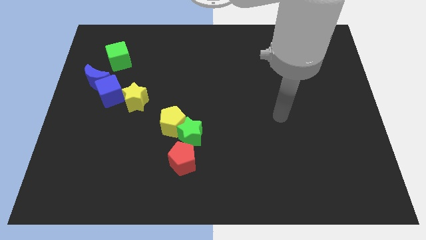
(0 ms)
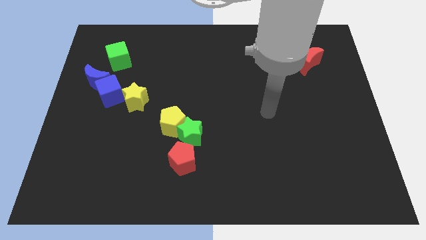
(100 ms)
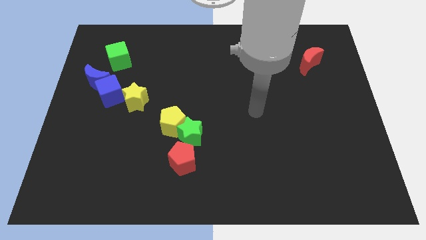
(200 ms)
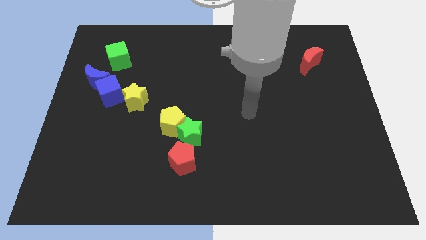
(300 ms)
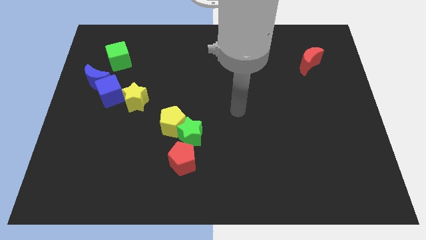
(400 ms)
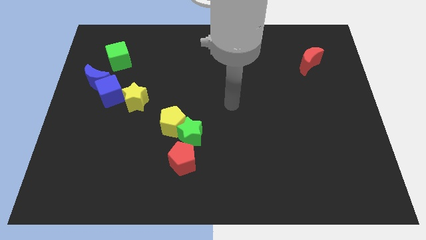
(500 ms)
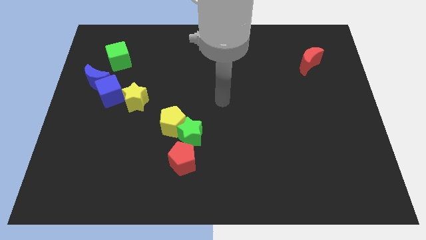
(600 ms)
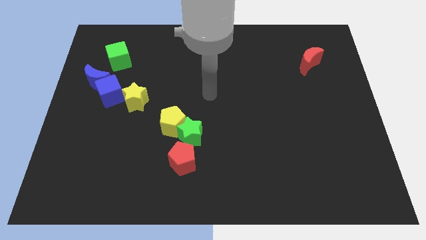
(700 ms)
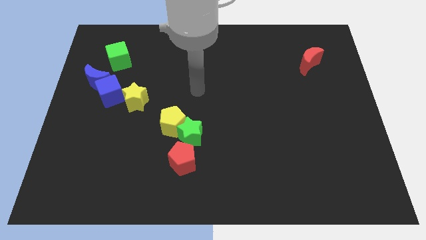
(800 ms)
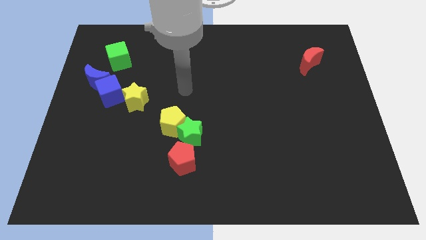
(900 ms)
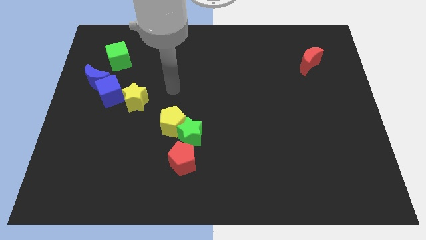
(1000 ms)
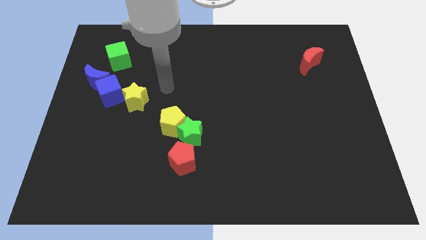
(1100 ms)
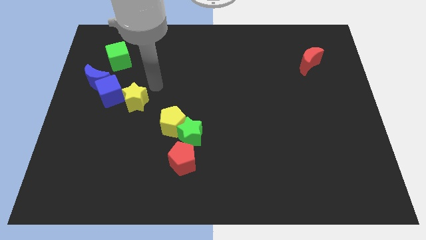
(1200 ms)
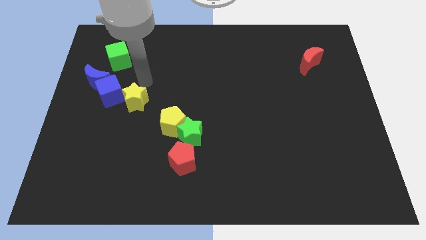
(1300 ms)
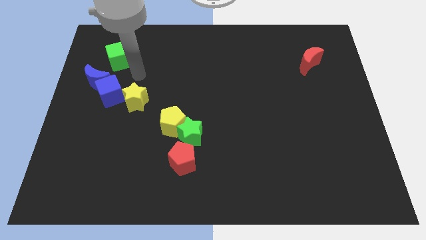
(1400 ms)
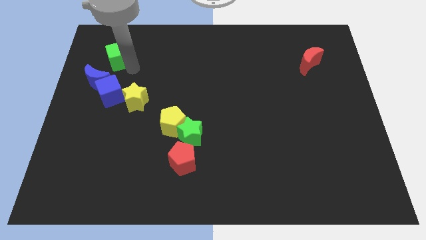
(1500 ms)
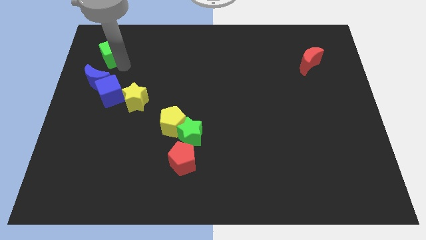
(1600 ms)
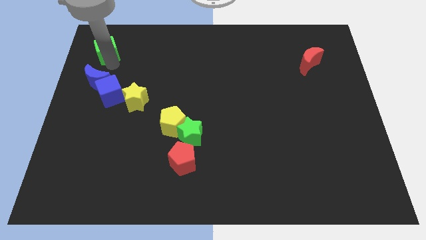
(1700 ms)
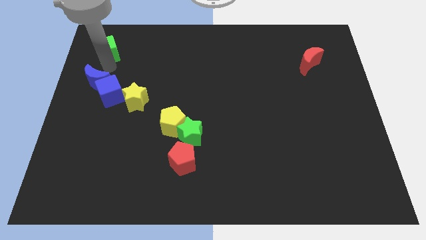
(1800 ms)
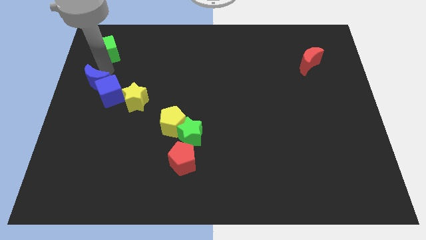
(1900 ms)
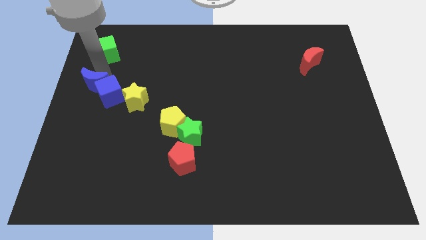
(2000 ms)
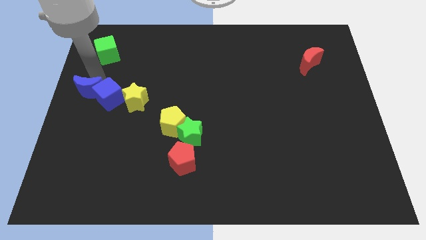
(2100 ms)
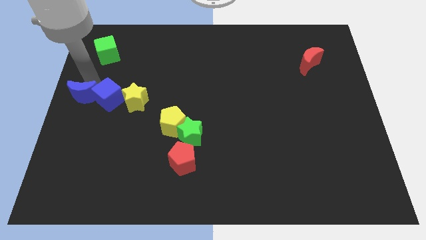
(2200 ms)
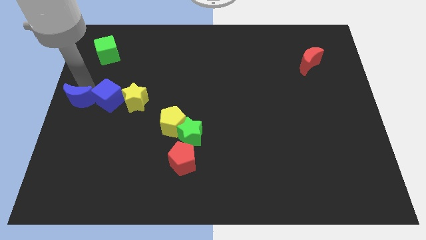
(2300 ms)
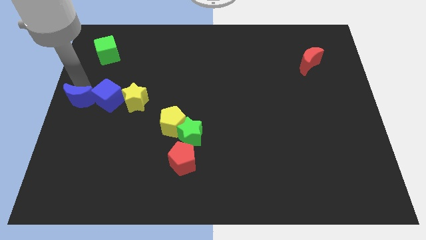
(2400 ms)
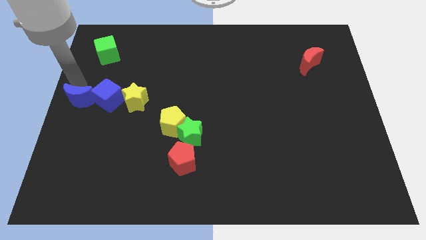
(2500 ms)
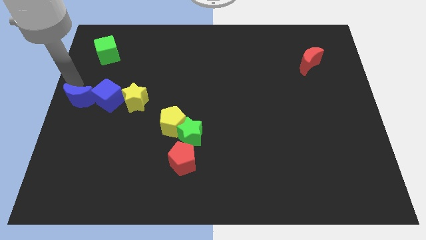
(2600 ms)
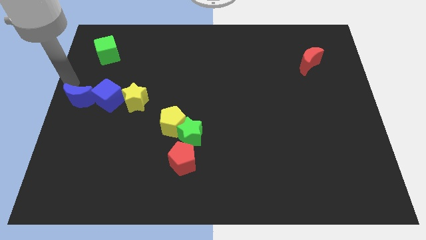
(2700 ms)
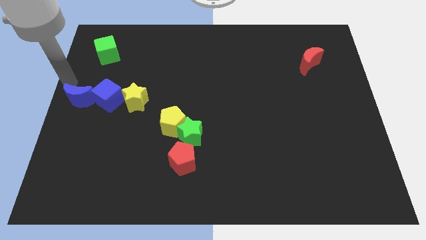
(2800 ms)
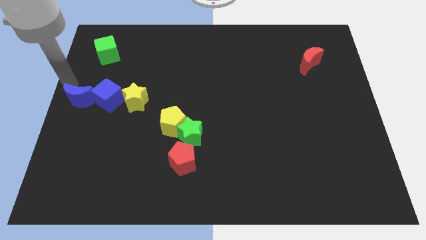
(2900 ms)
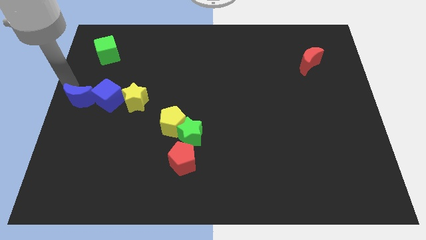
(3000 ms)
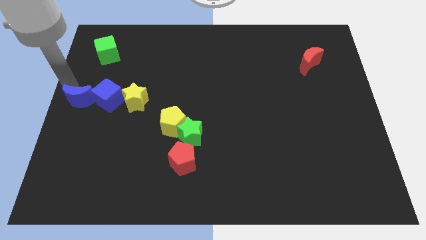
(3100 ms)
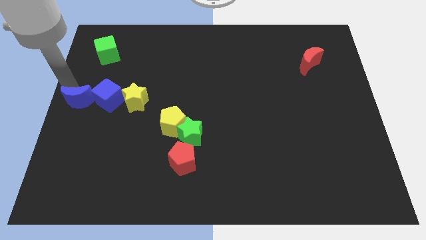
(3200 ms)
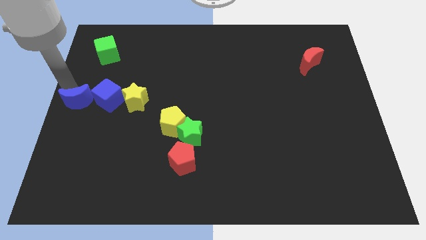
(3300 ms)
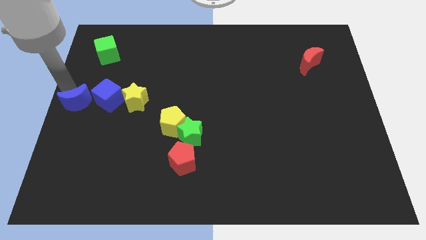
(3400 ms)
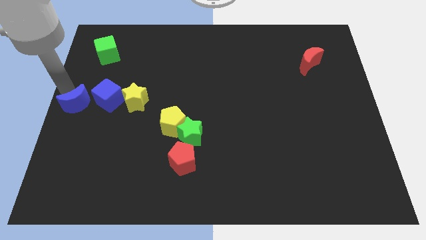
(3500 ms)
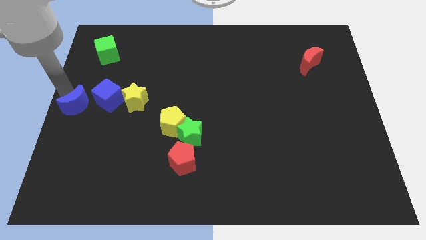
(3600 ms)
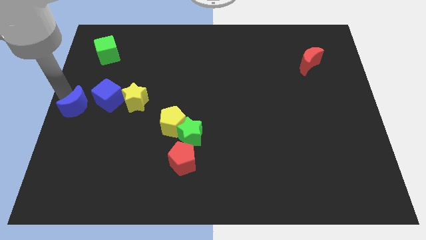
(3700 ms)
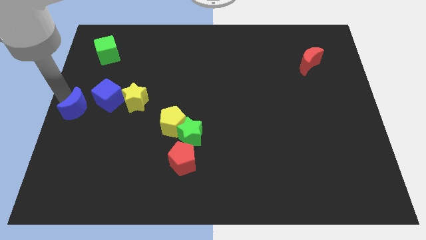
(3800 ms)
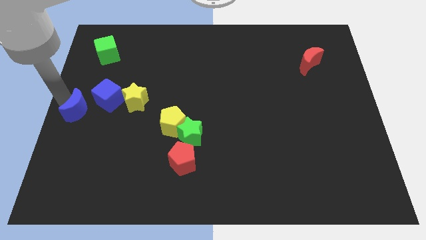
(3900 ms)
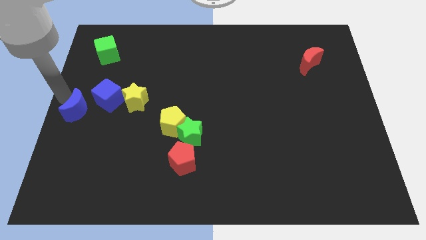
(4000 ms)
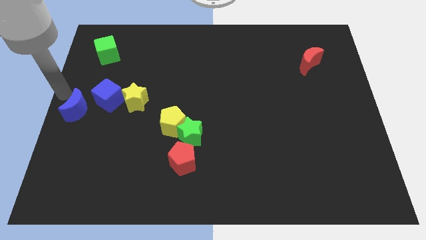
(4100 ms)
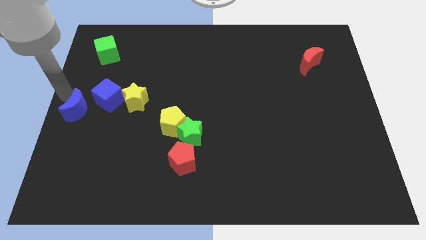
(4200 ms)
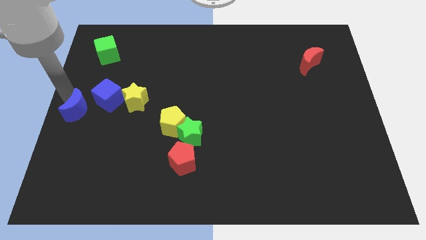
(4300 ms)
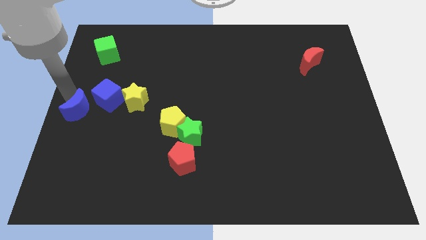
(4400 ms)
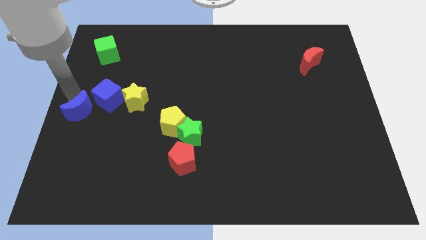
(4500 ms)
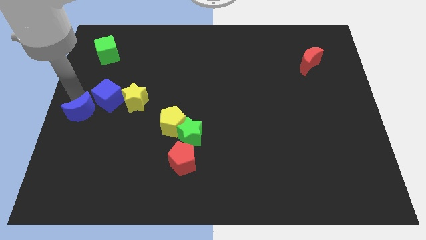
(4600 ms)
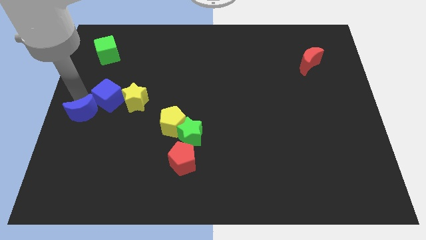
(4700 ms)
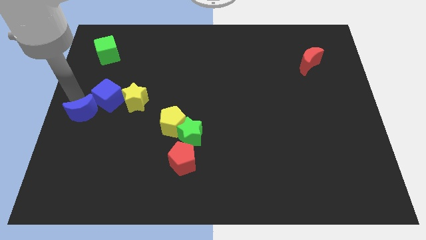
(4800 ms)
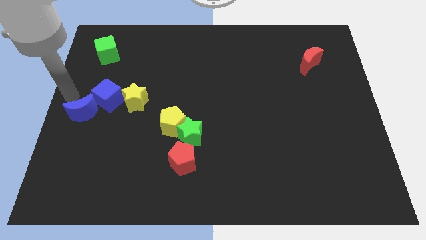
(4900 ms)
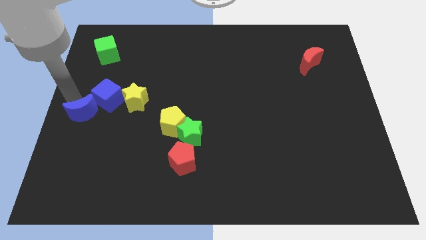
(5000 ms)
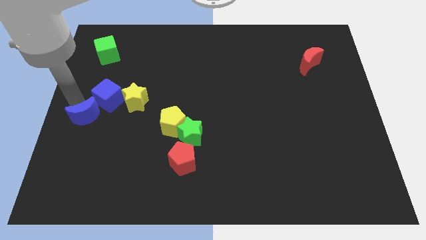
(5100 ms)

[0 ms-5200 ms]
slide the blue moon below the blue cube

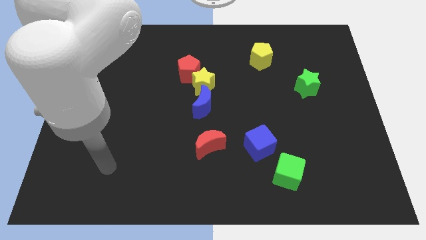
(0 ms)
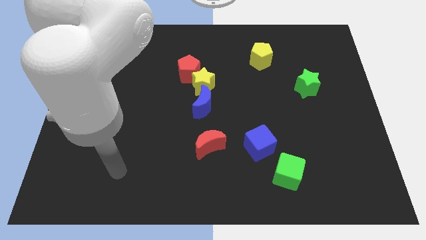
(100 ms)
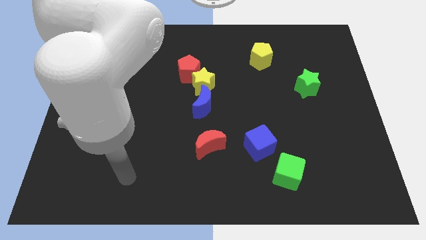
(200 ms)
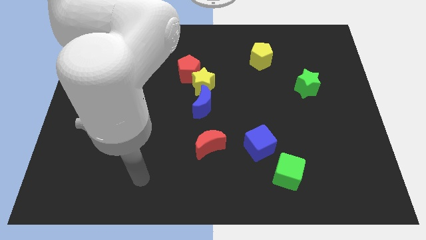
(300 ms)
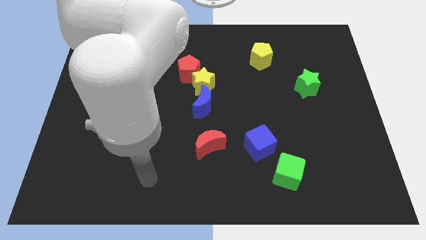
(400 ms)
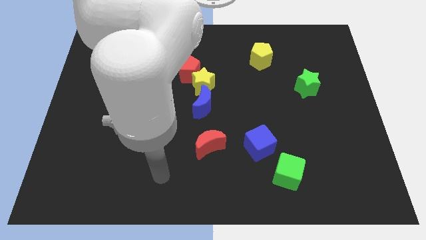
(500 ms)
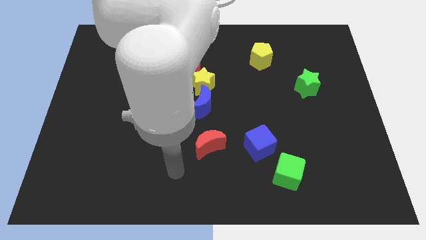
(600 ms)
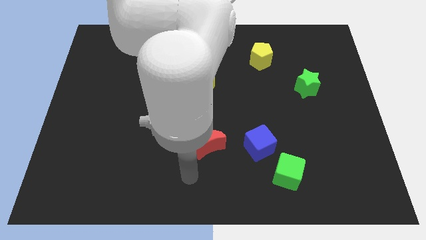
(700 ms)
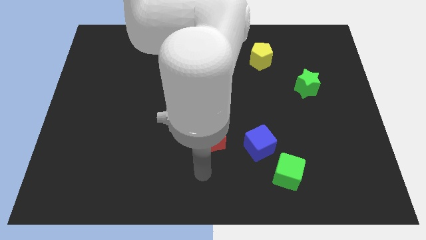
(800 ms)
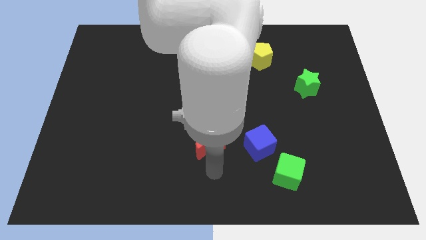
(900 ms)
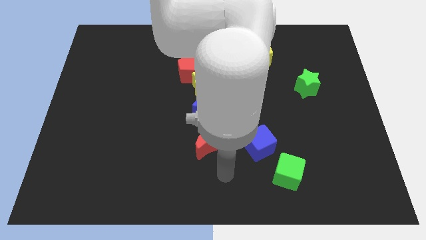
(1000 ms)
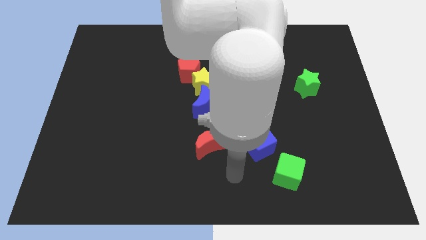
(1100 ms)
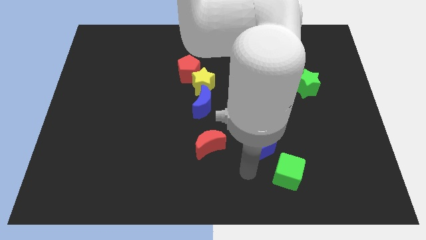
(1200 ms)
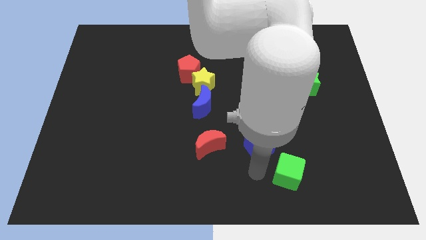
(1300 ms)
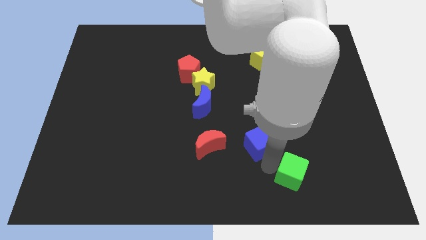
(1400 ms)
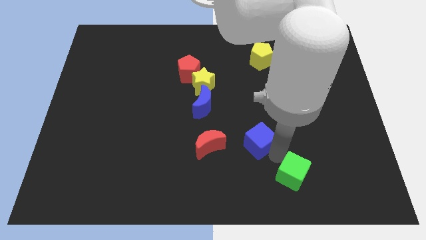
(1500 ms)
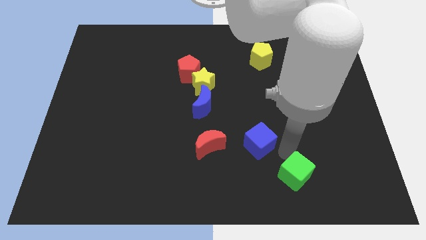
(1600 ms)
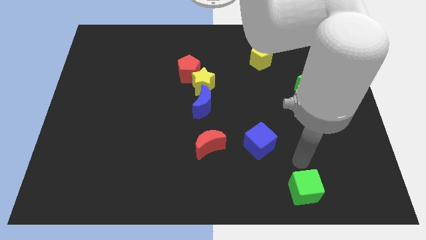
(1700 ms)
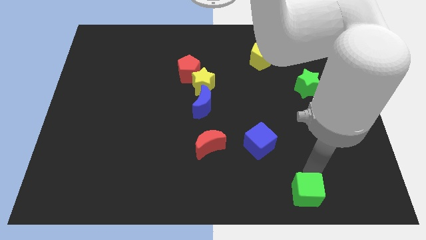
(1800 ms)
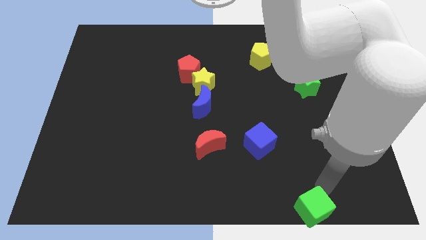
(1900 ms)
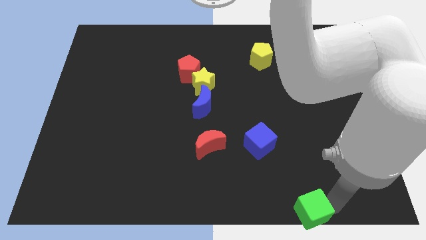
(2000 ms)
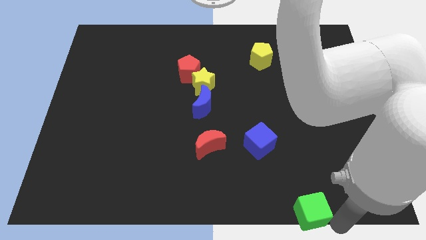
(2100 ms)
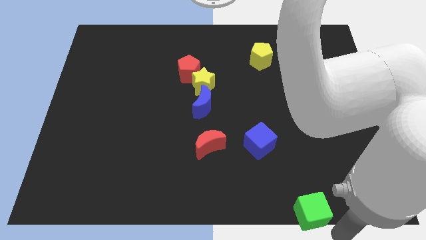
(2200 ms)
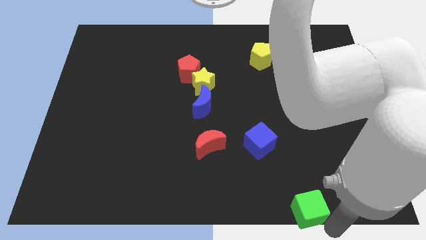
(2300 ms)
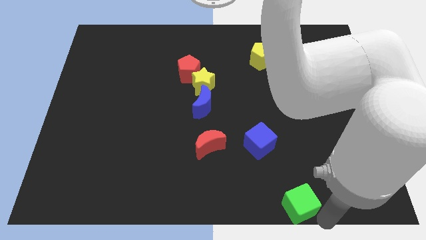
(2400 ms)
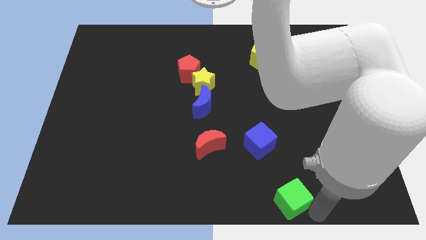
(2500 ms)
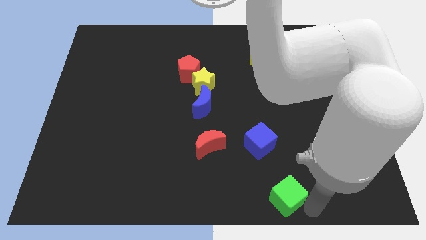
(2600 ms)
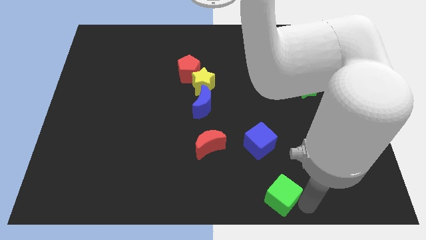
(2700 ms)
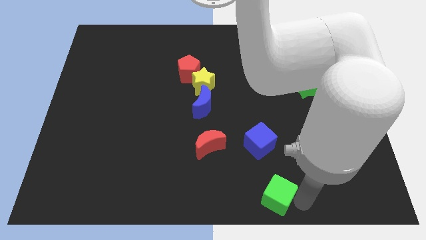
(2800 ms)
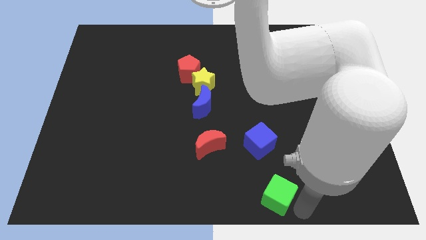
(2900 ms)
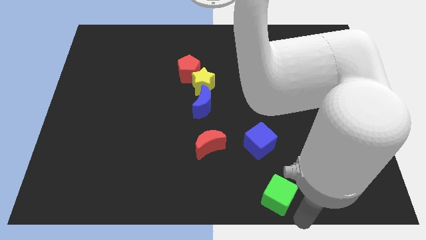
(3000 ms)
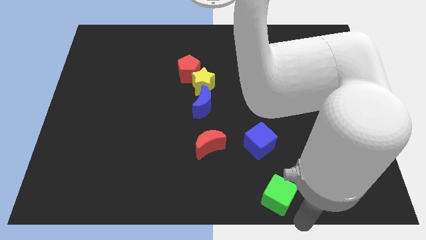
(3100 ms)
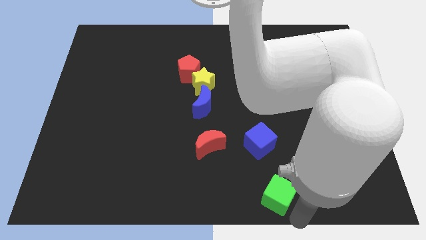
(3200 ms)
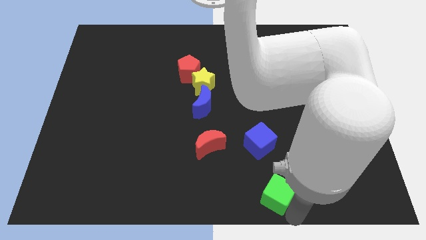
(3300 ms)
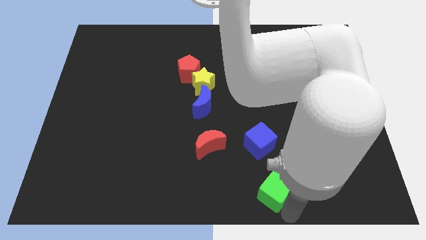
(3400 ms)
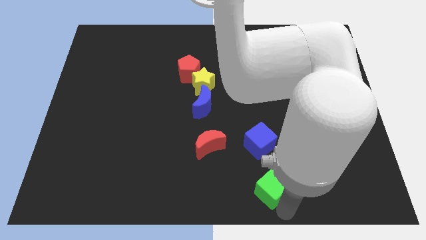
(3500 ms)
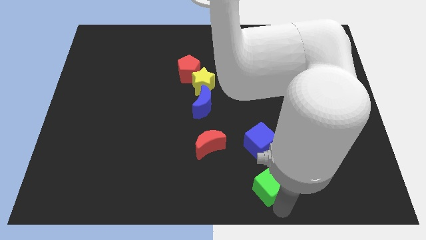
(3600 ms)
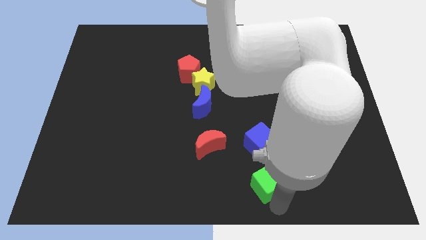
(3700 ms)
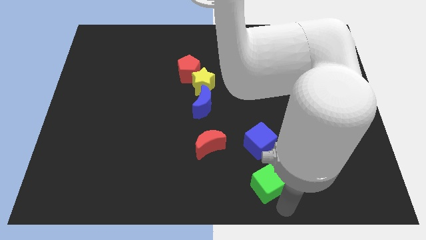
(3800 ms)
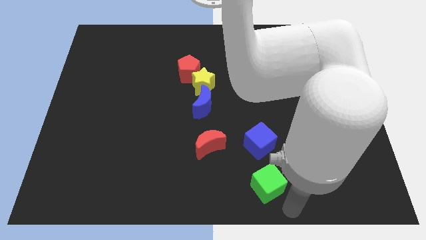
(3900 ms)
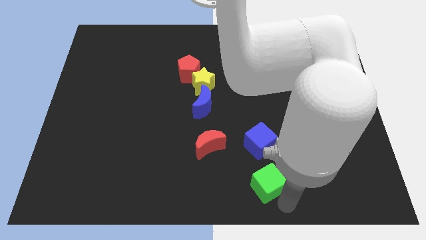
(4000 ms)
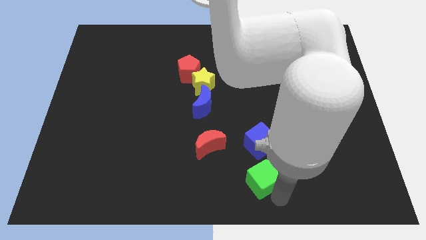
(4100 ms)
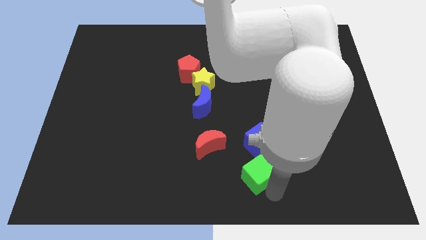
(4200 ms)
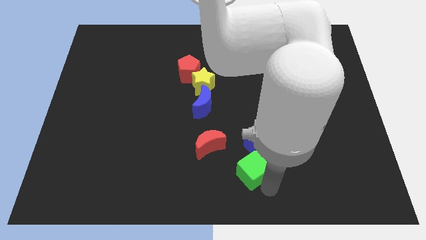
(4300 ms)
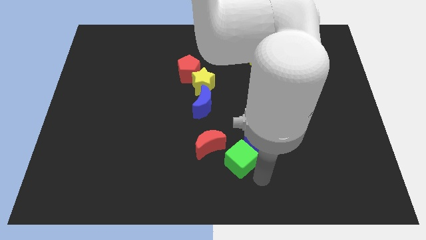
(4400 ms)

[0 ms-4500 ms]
slide the green cube just left of the blue cube
